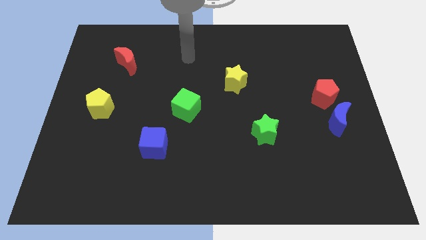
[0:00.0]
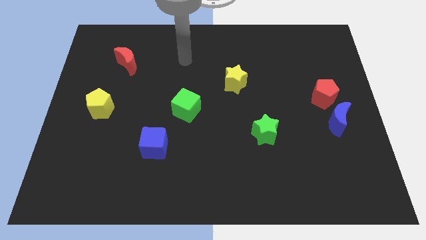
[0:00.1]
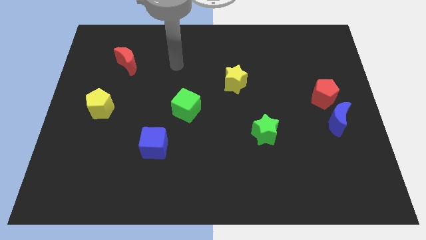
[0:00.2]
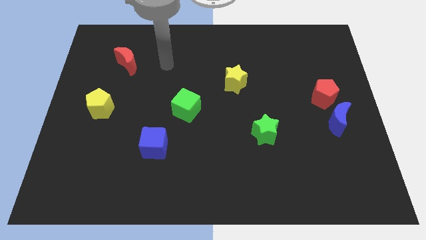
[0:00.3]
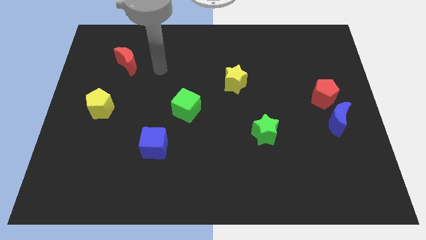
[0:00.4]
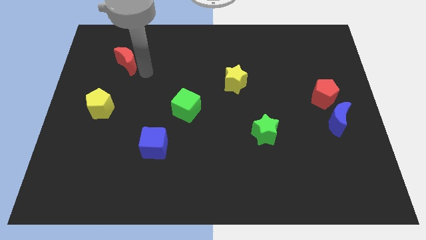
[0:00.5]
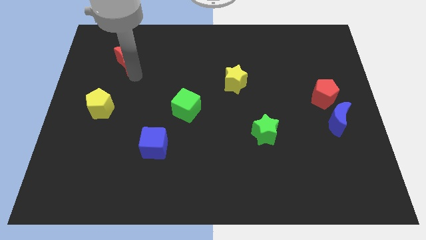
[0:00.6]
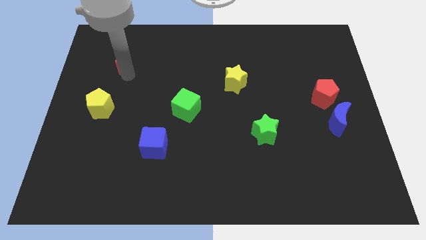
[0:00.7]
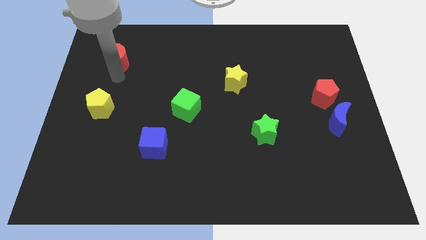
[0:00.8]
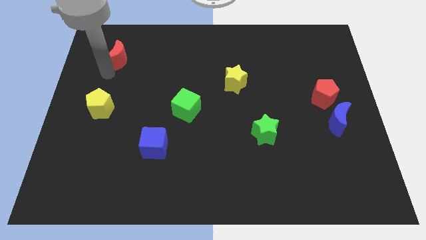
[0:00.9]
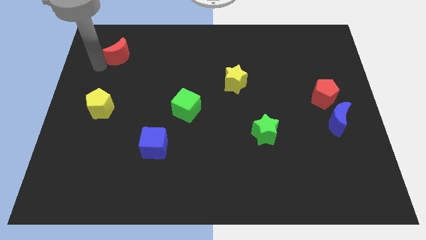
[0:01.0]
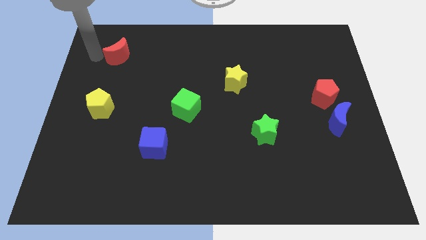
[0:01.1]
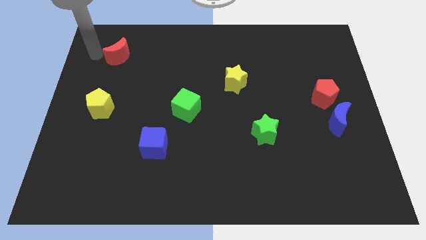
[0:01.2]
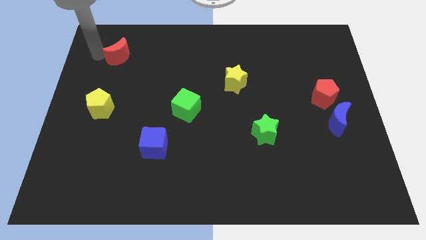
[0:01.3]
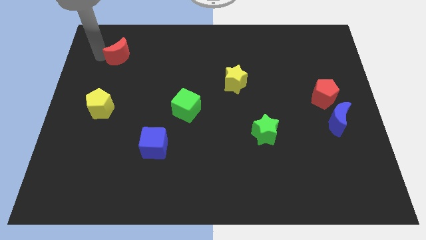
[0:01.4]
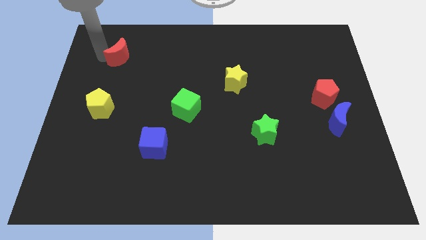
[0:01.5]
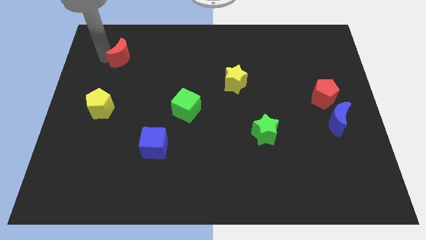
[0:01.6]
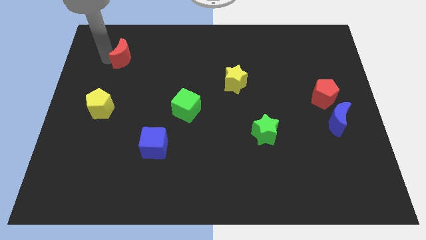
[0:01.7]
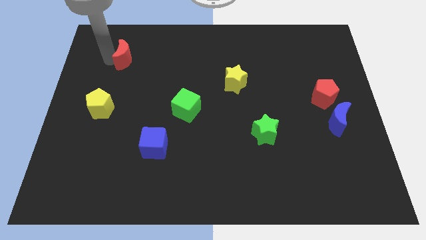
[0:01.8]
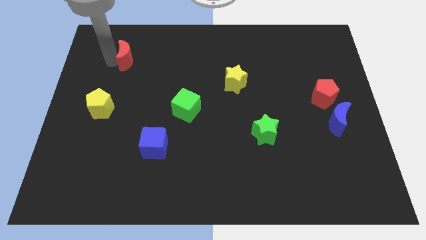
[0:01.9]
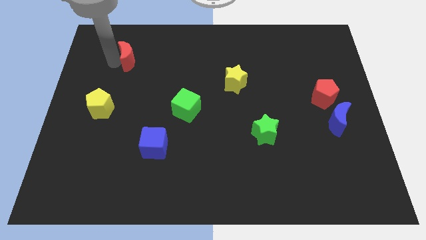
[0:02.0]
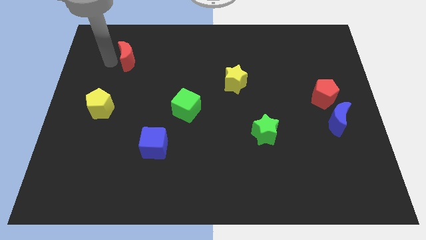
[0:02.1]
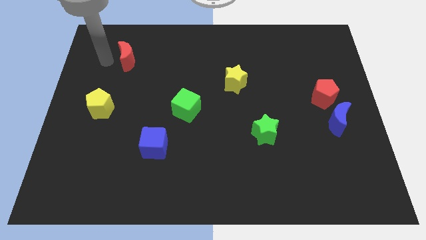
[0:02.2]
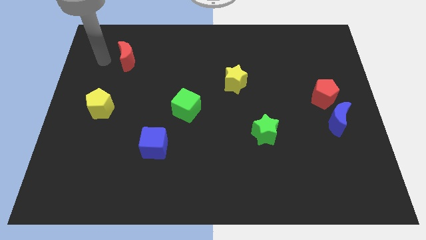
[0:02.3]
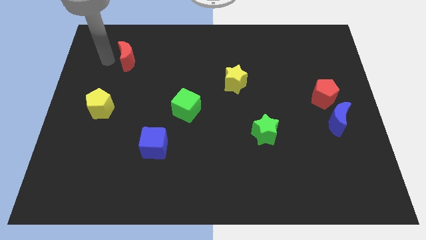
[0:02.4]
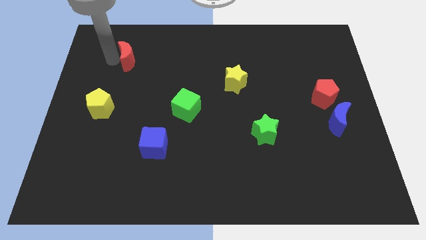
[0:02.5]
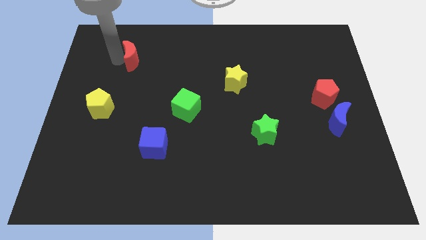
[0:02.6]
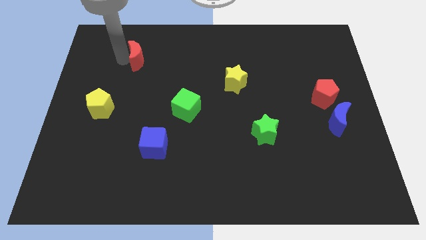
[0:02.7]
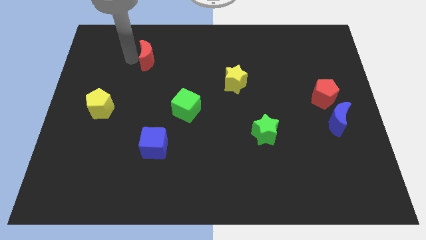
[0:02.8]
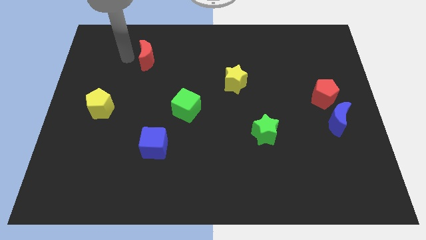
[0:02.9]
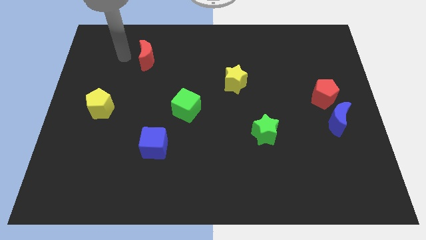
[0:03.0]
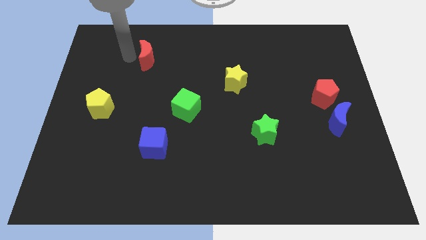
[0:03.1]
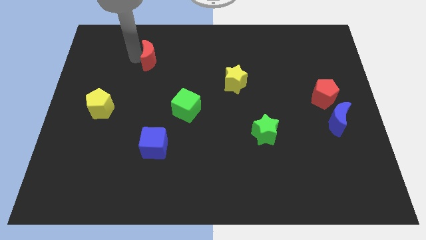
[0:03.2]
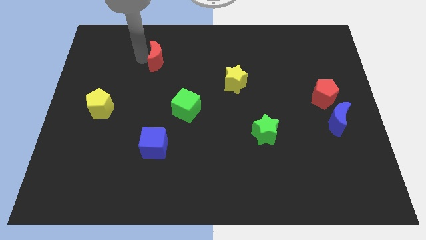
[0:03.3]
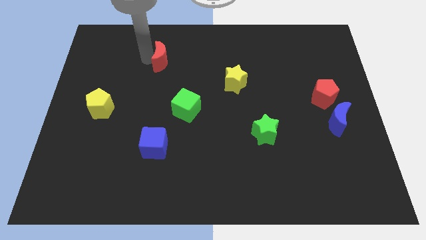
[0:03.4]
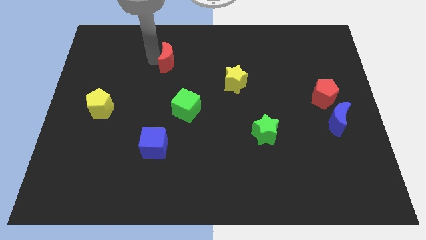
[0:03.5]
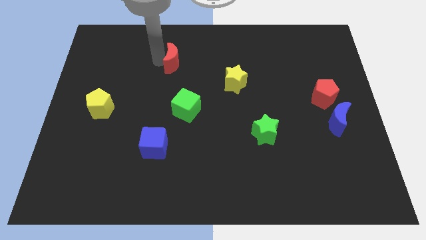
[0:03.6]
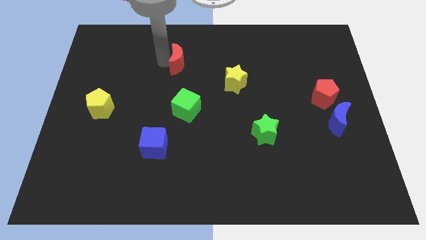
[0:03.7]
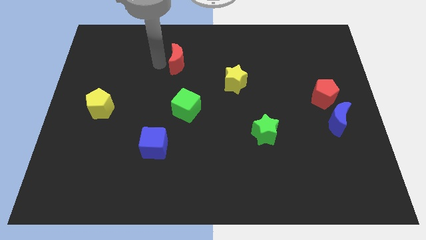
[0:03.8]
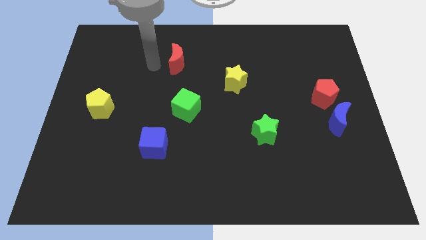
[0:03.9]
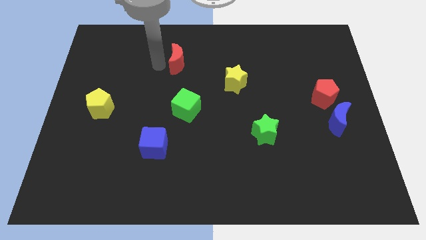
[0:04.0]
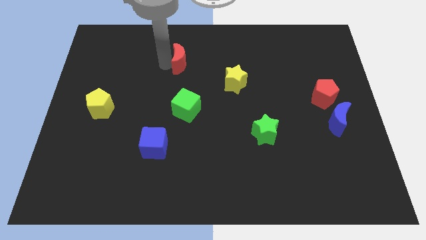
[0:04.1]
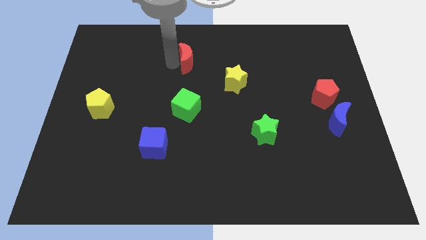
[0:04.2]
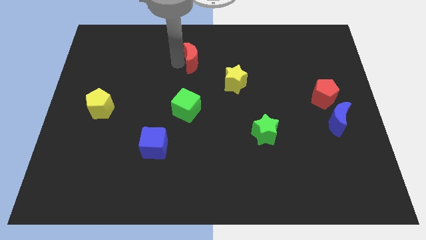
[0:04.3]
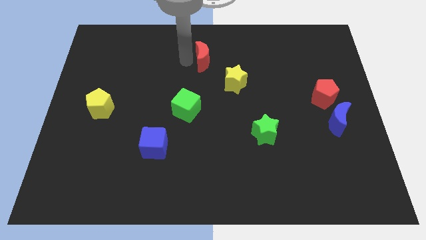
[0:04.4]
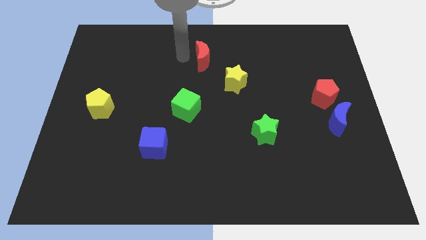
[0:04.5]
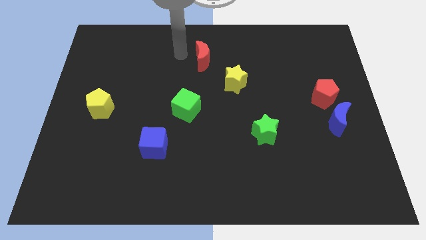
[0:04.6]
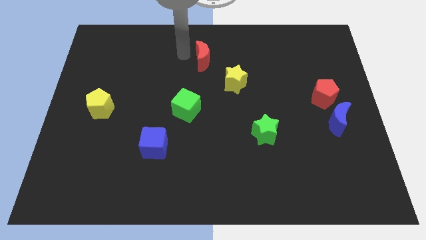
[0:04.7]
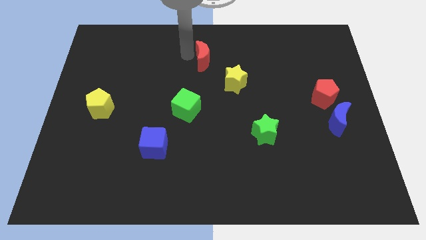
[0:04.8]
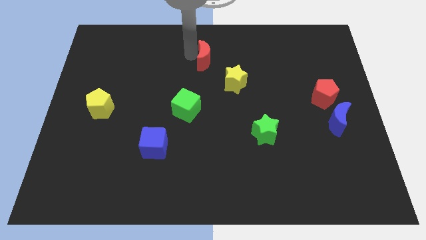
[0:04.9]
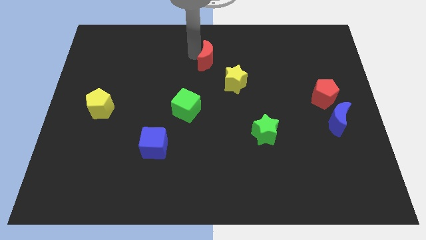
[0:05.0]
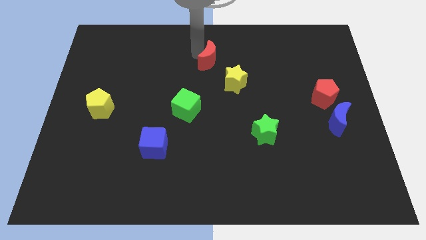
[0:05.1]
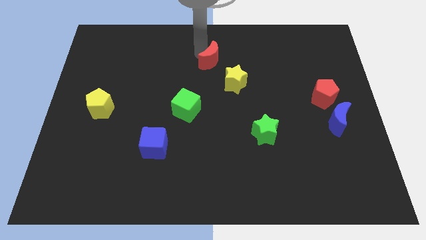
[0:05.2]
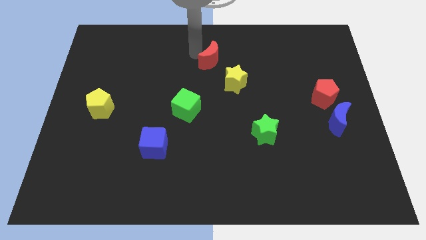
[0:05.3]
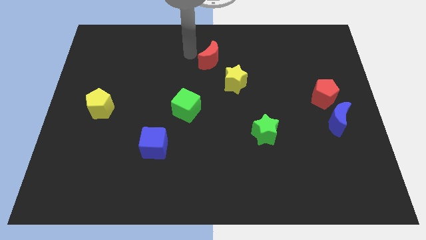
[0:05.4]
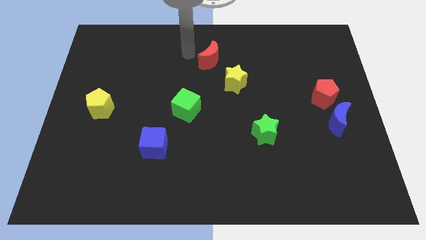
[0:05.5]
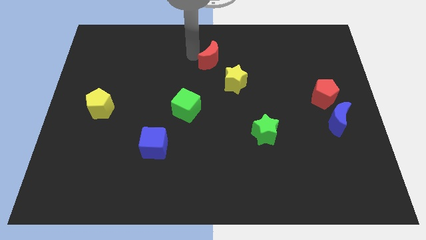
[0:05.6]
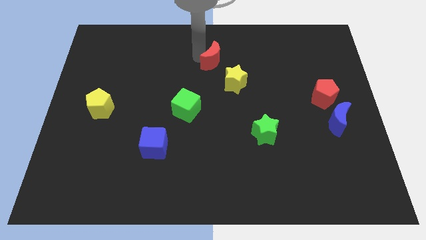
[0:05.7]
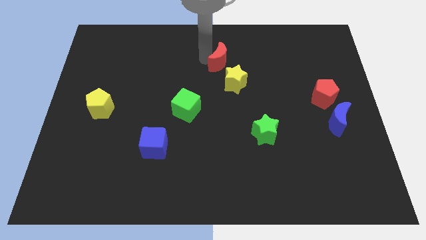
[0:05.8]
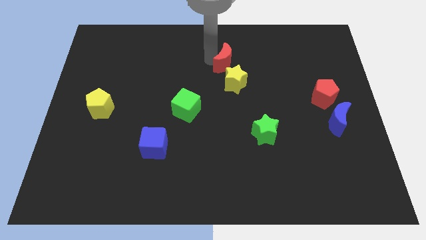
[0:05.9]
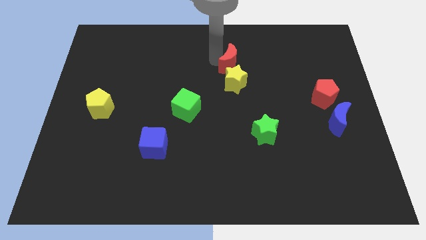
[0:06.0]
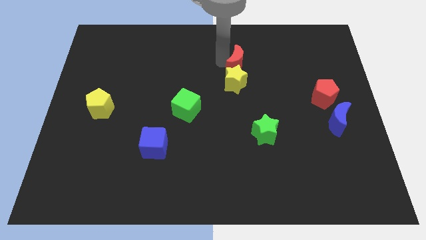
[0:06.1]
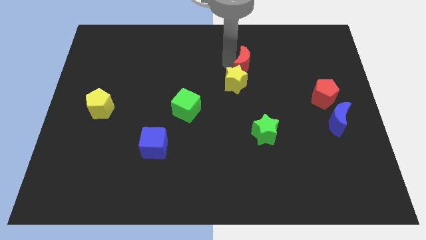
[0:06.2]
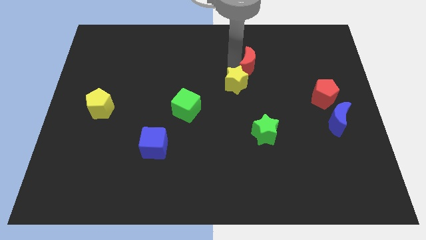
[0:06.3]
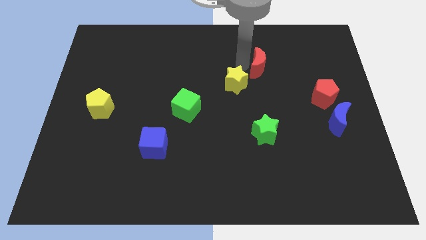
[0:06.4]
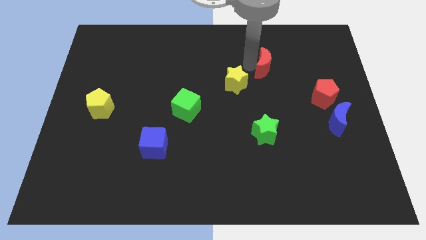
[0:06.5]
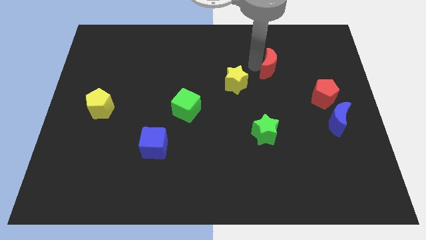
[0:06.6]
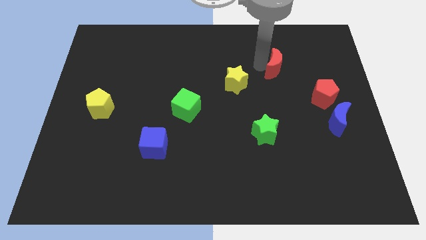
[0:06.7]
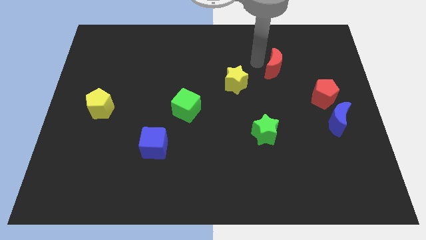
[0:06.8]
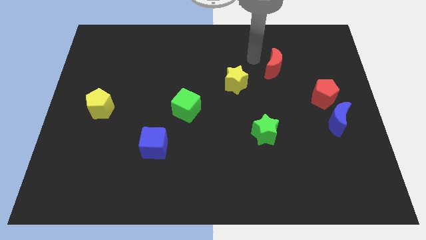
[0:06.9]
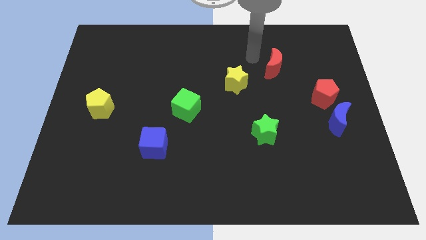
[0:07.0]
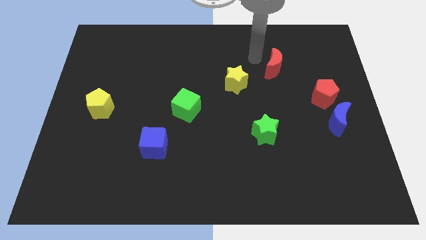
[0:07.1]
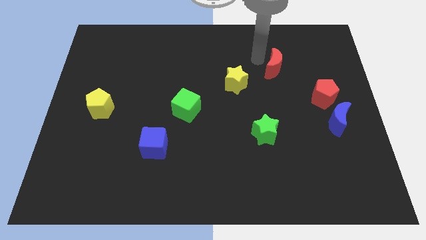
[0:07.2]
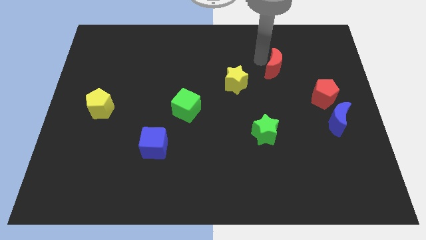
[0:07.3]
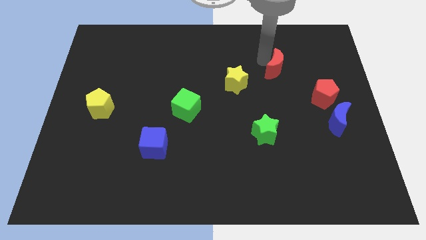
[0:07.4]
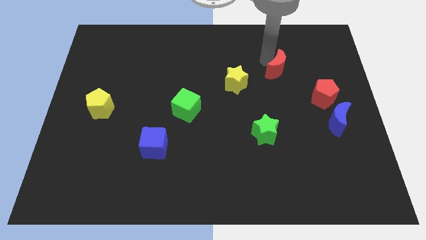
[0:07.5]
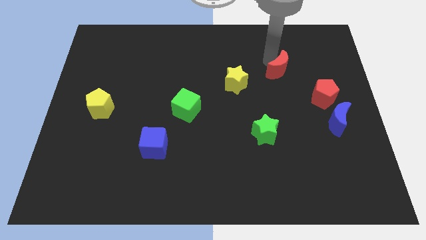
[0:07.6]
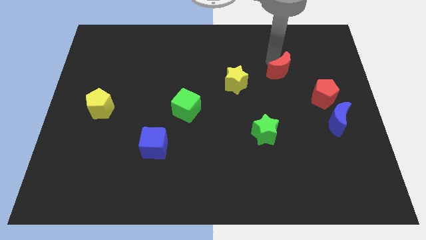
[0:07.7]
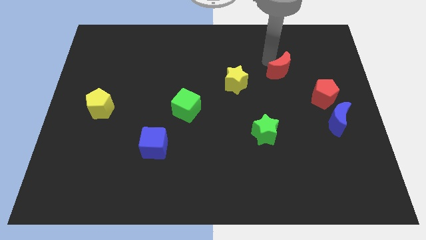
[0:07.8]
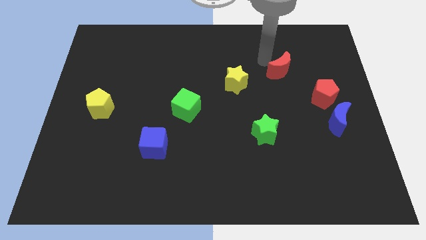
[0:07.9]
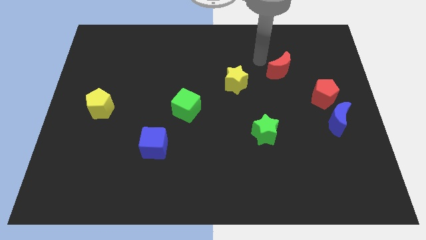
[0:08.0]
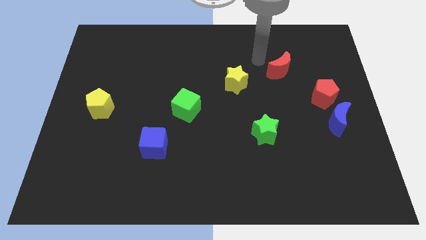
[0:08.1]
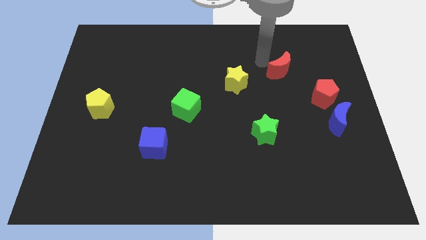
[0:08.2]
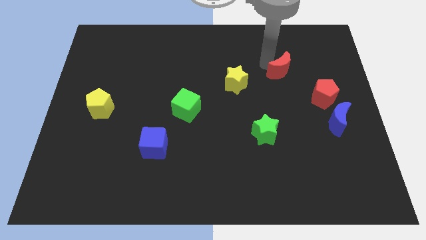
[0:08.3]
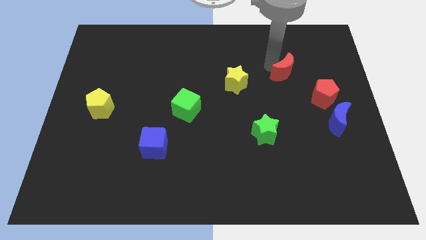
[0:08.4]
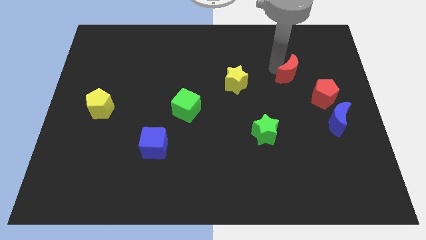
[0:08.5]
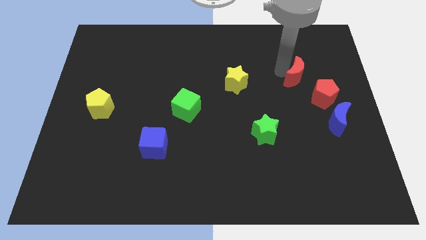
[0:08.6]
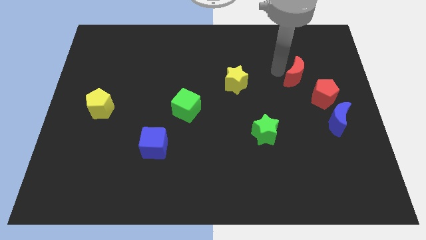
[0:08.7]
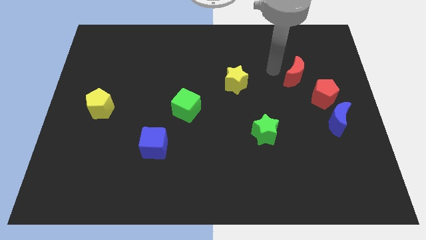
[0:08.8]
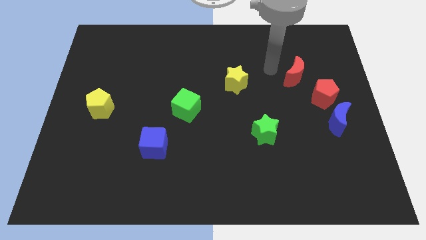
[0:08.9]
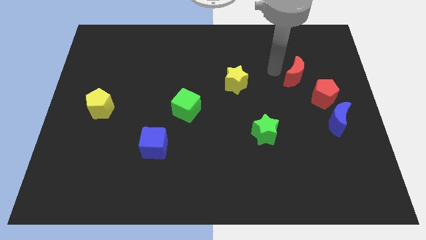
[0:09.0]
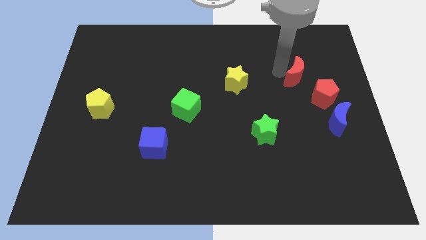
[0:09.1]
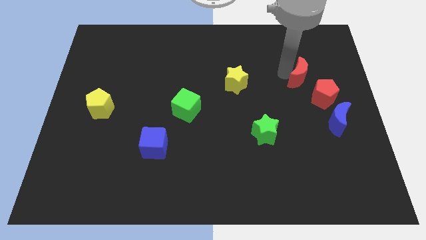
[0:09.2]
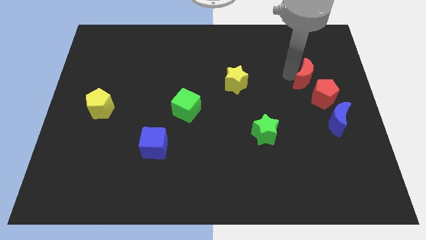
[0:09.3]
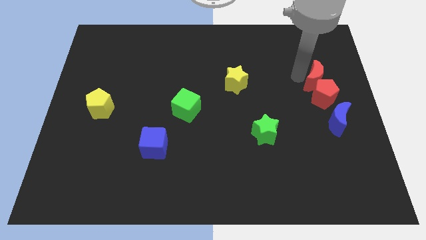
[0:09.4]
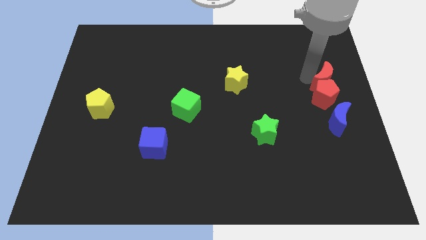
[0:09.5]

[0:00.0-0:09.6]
slide the red moon to the right side of the board
